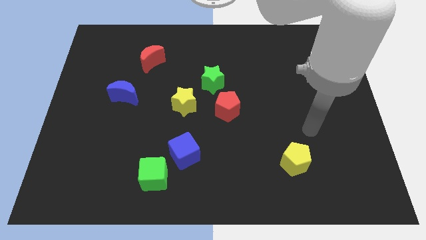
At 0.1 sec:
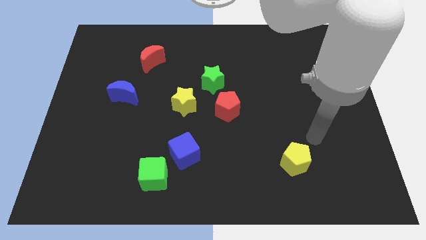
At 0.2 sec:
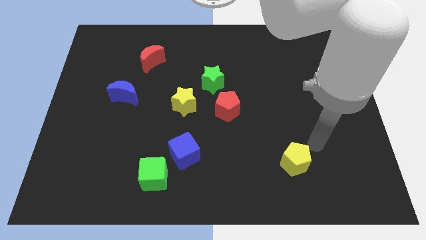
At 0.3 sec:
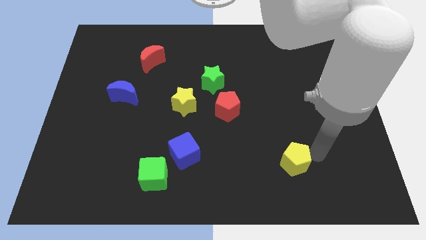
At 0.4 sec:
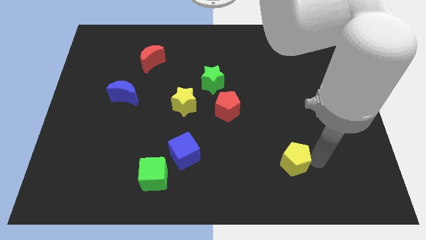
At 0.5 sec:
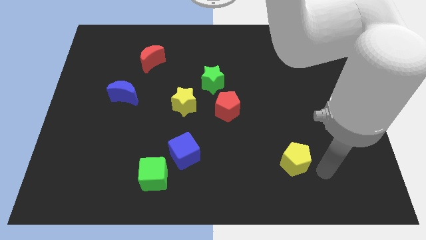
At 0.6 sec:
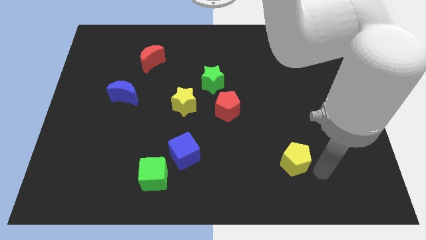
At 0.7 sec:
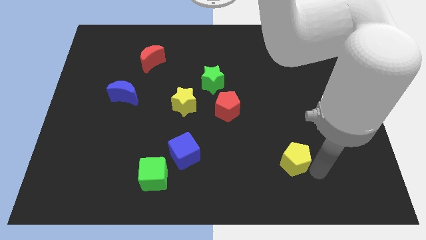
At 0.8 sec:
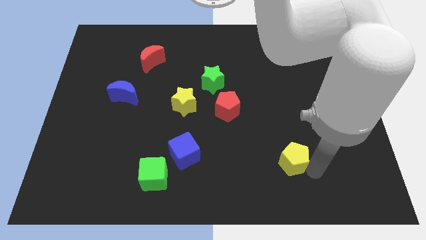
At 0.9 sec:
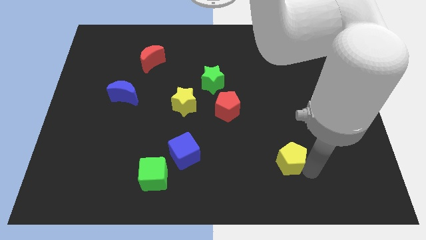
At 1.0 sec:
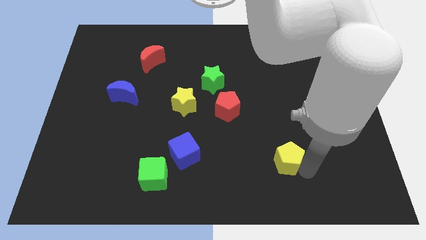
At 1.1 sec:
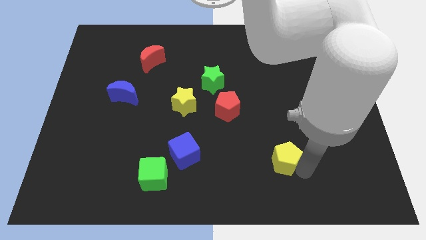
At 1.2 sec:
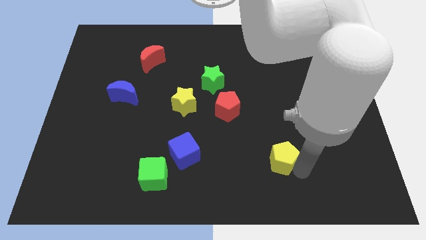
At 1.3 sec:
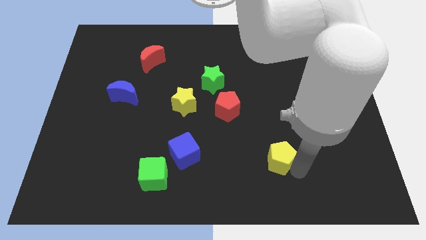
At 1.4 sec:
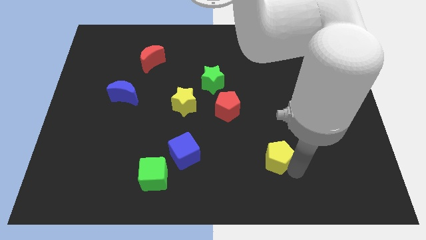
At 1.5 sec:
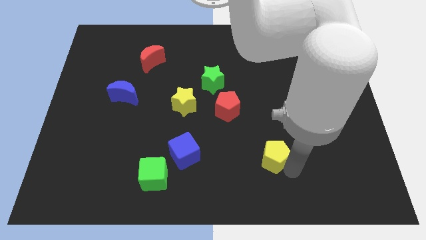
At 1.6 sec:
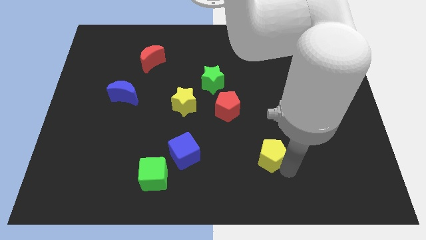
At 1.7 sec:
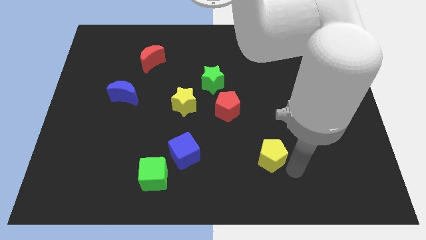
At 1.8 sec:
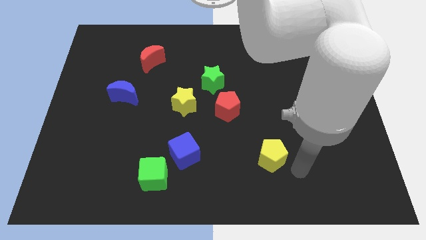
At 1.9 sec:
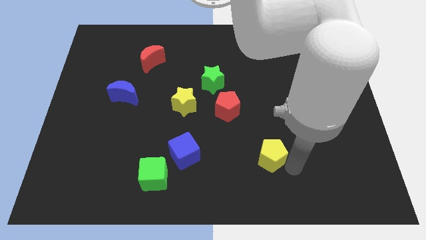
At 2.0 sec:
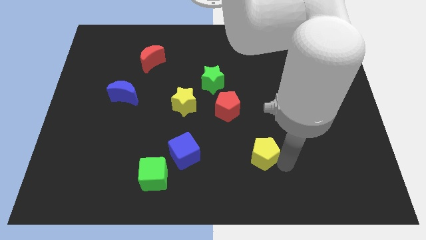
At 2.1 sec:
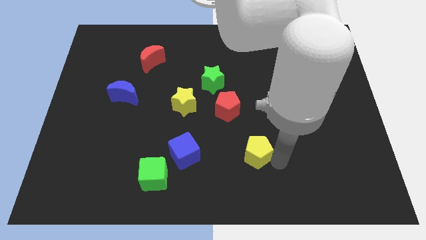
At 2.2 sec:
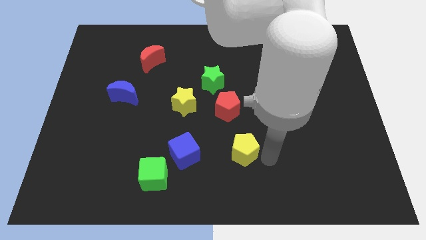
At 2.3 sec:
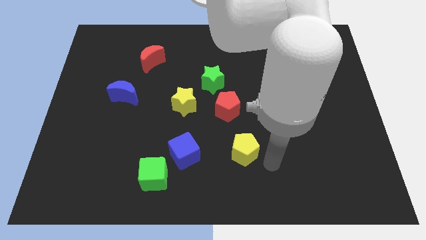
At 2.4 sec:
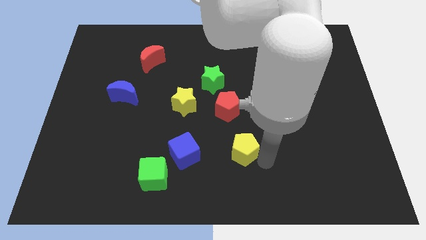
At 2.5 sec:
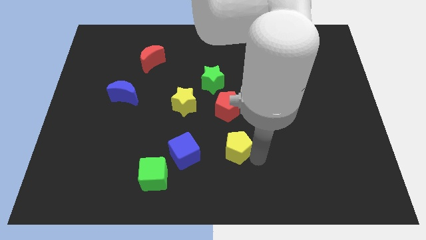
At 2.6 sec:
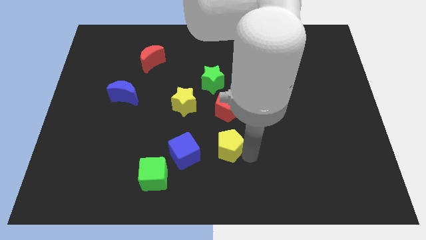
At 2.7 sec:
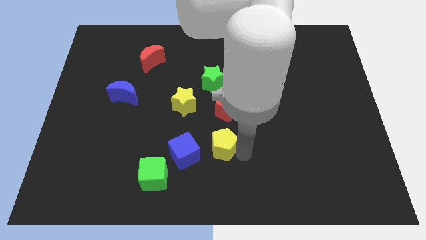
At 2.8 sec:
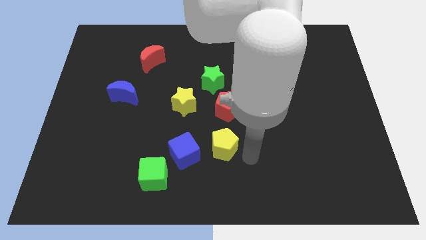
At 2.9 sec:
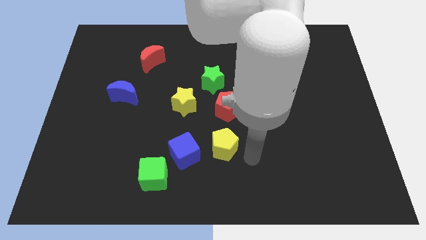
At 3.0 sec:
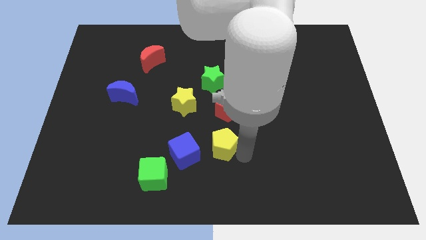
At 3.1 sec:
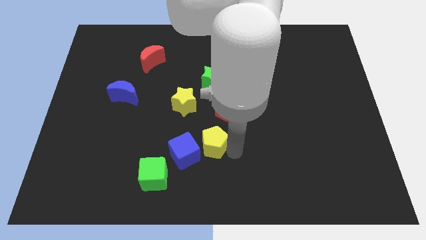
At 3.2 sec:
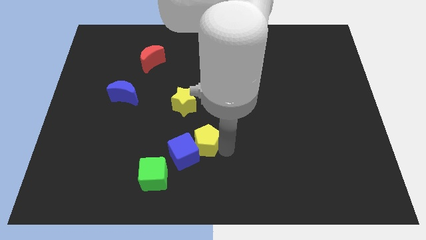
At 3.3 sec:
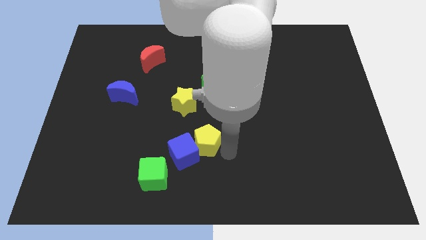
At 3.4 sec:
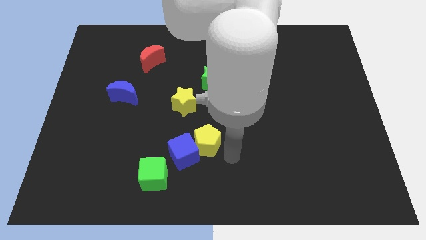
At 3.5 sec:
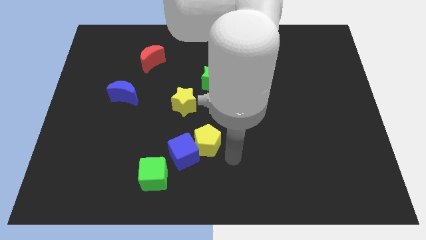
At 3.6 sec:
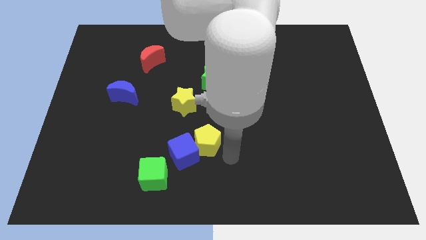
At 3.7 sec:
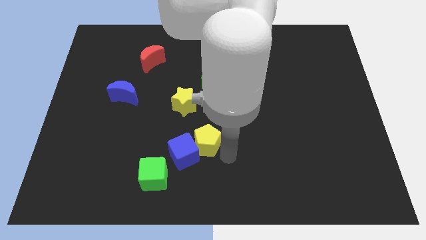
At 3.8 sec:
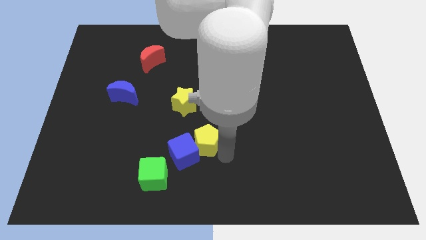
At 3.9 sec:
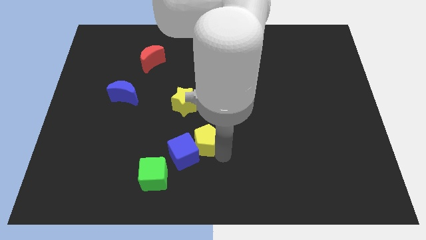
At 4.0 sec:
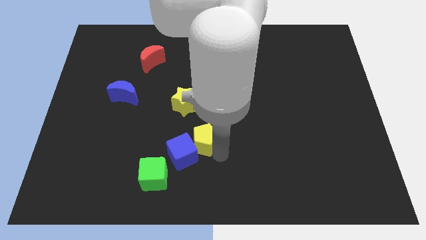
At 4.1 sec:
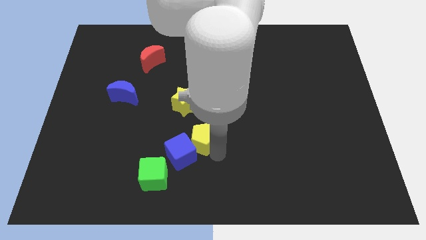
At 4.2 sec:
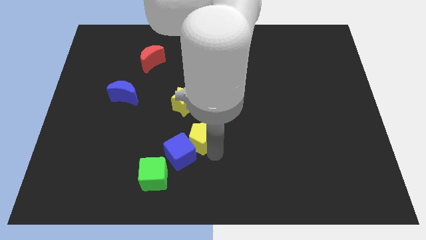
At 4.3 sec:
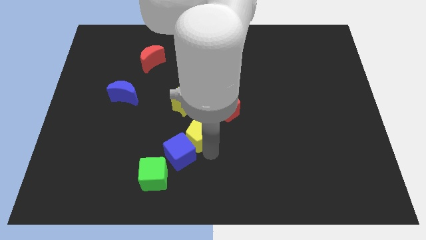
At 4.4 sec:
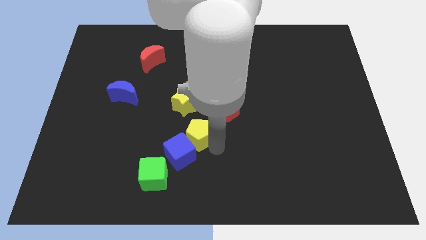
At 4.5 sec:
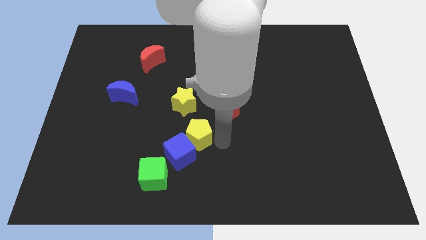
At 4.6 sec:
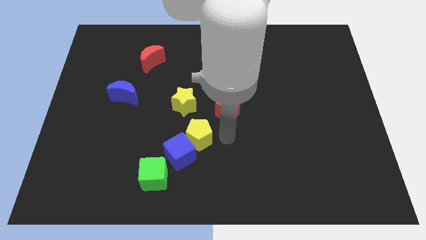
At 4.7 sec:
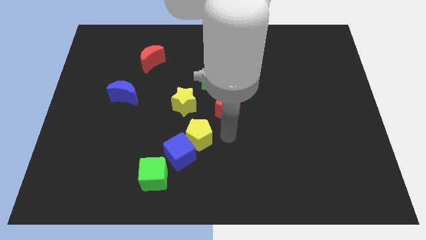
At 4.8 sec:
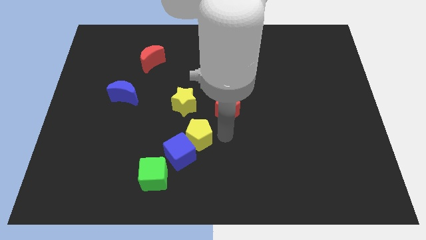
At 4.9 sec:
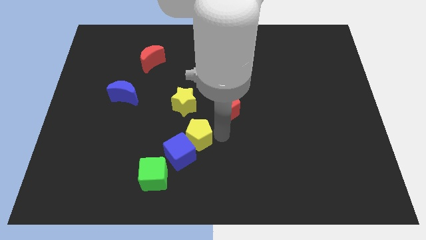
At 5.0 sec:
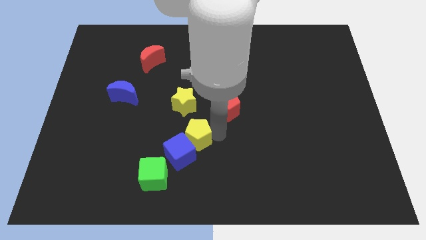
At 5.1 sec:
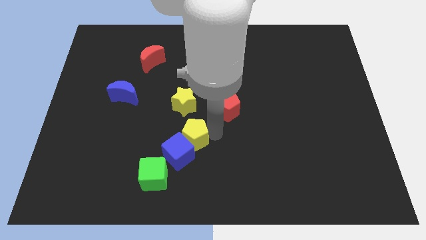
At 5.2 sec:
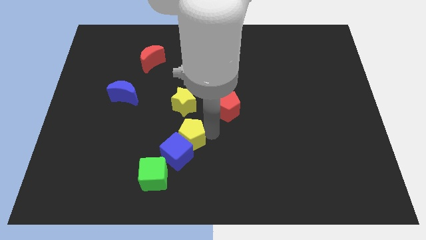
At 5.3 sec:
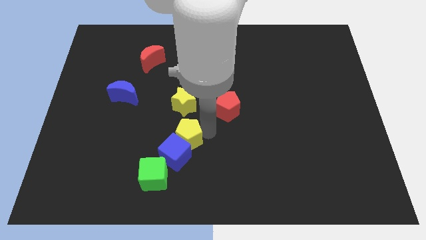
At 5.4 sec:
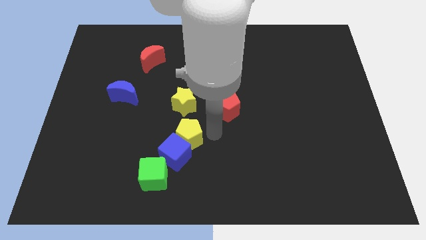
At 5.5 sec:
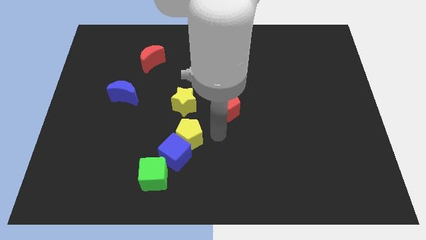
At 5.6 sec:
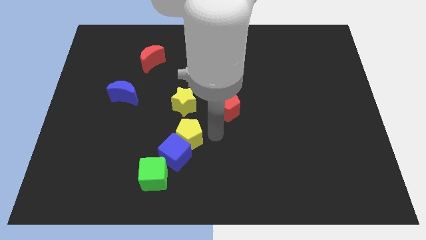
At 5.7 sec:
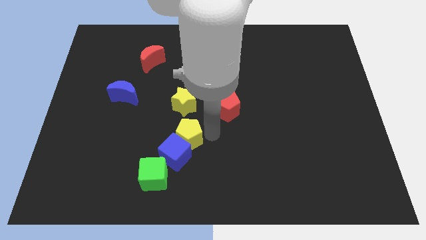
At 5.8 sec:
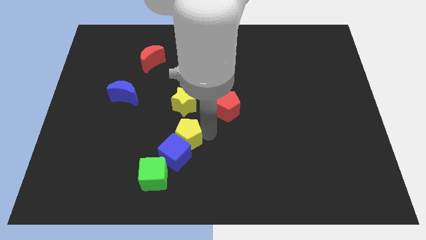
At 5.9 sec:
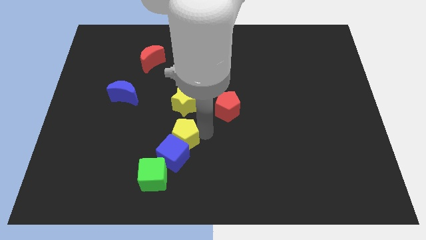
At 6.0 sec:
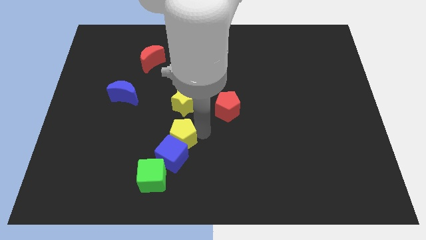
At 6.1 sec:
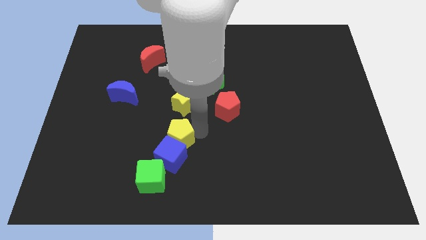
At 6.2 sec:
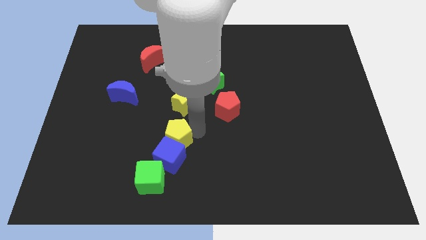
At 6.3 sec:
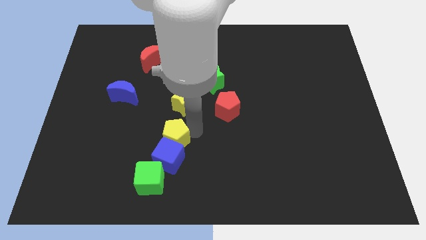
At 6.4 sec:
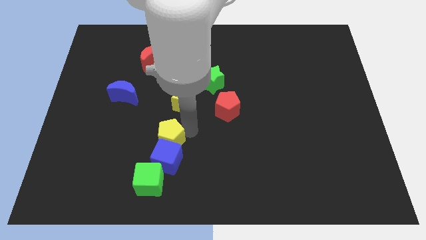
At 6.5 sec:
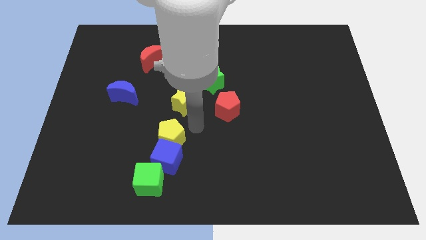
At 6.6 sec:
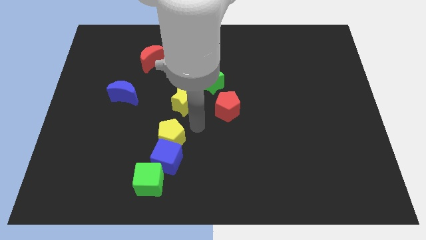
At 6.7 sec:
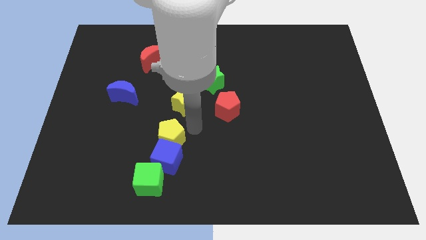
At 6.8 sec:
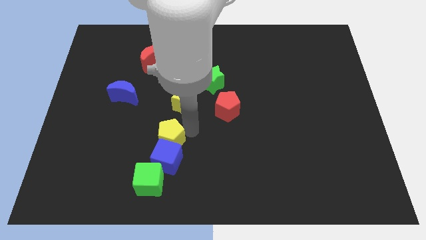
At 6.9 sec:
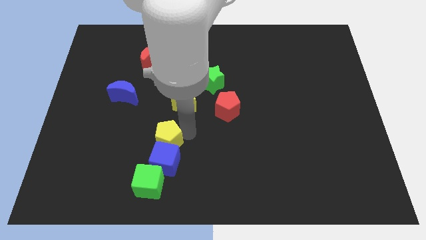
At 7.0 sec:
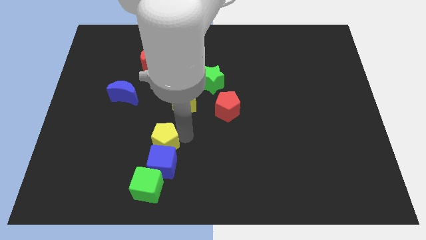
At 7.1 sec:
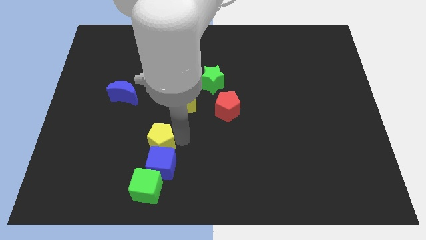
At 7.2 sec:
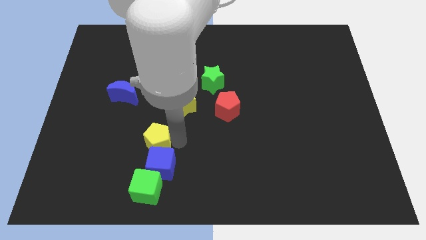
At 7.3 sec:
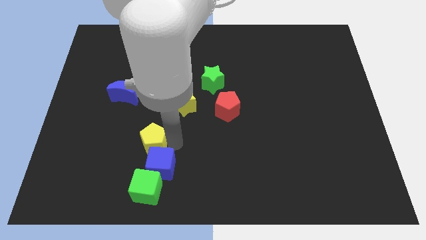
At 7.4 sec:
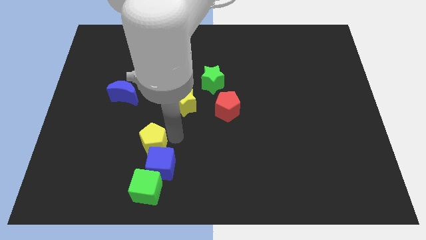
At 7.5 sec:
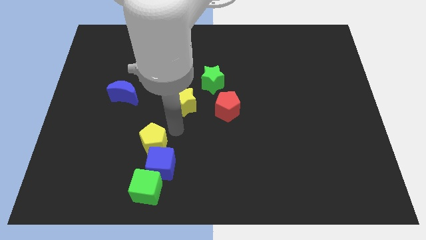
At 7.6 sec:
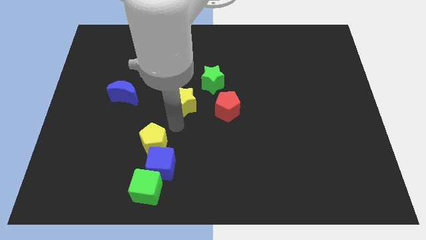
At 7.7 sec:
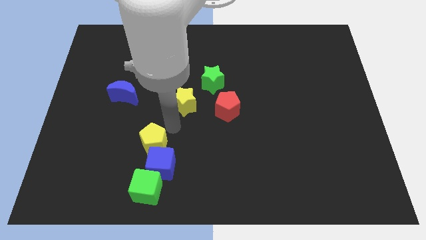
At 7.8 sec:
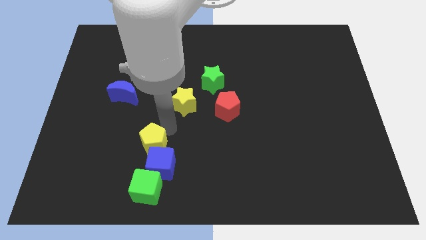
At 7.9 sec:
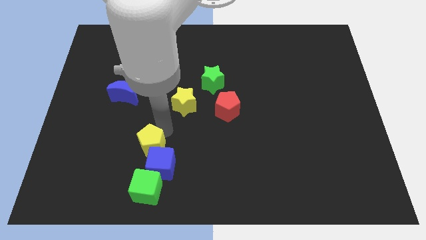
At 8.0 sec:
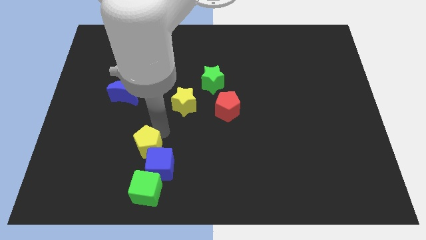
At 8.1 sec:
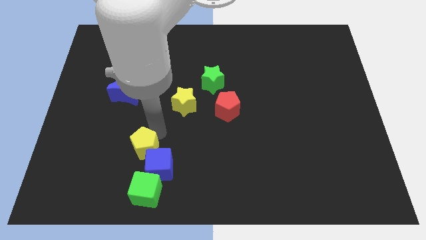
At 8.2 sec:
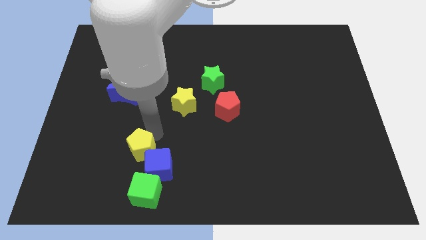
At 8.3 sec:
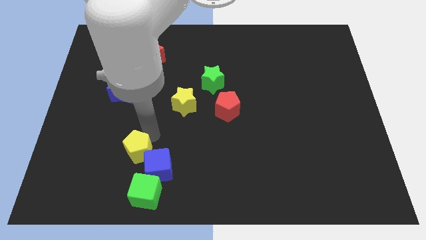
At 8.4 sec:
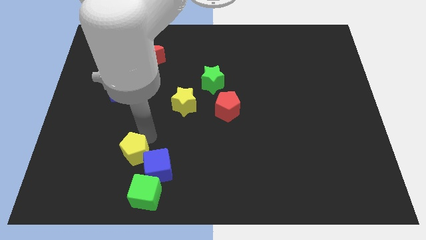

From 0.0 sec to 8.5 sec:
slide the yellow pentagon diagonally up and to the left of the green cube
